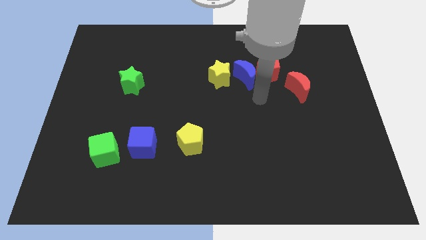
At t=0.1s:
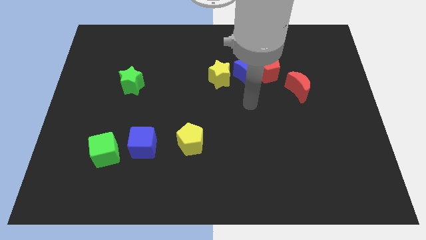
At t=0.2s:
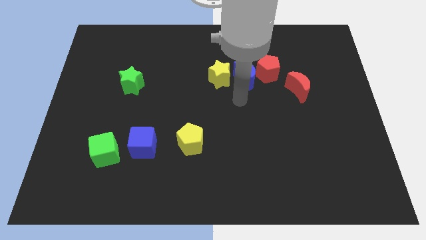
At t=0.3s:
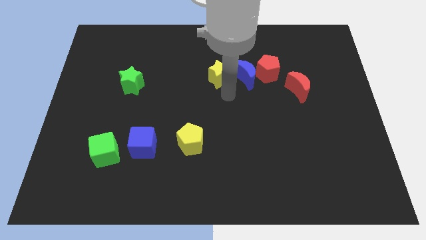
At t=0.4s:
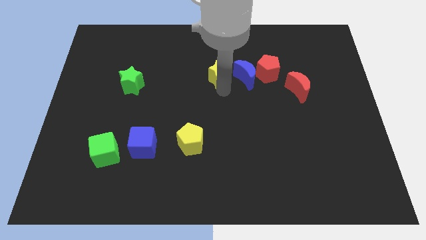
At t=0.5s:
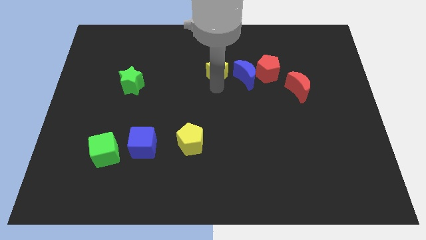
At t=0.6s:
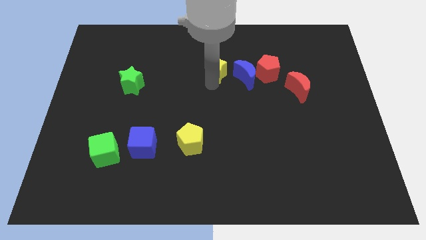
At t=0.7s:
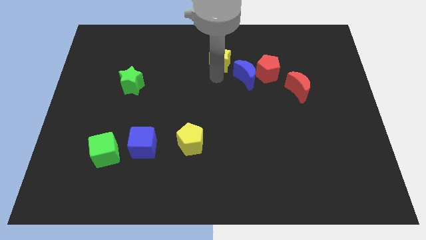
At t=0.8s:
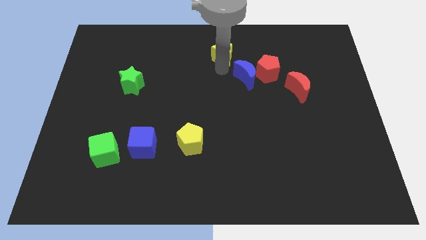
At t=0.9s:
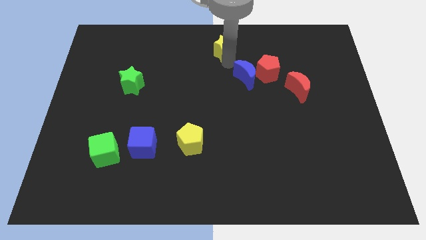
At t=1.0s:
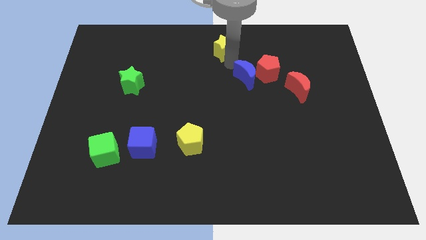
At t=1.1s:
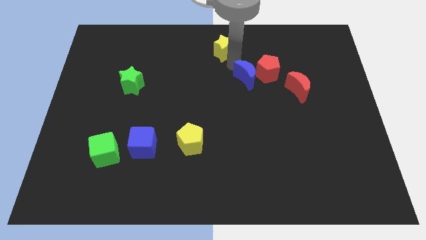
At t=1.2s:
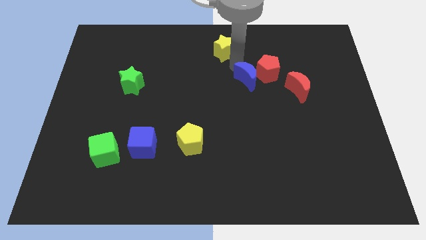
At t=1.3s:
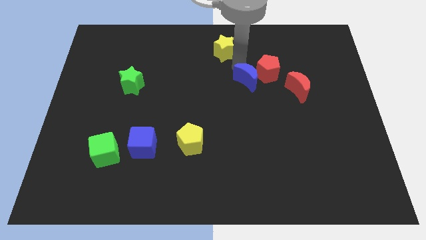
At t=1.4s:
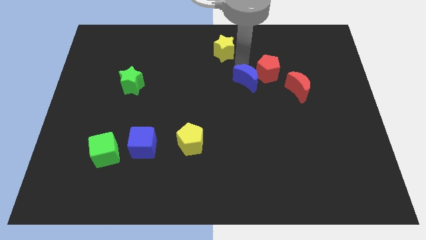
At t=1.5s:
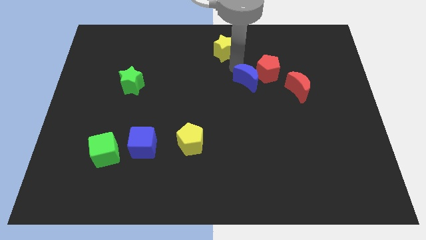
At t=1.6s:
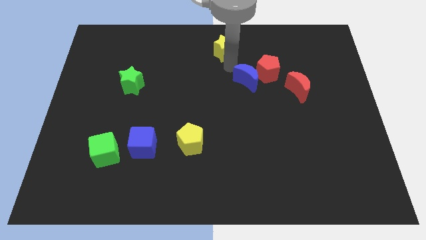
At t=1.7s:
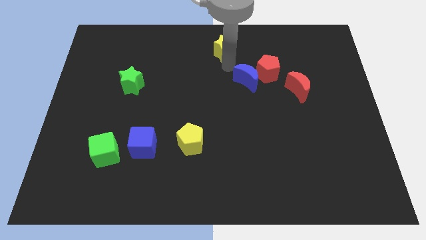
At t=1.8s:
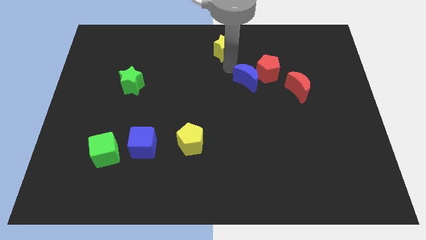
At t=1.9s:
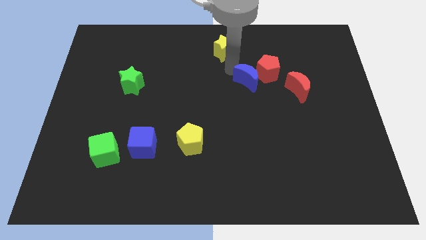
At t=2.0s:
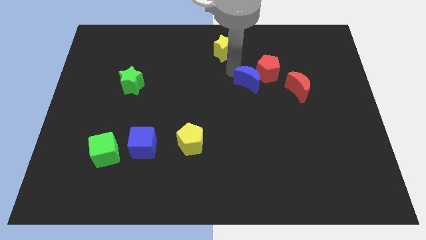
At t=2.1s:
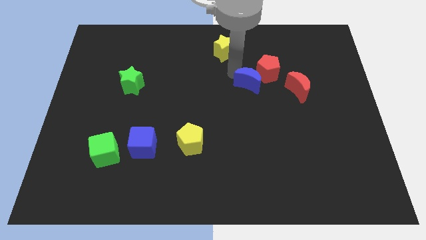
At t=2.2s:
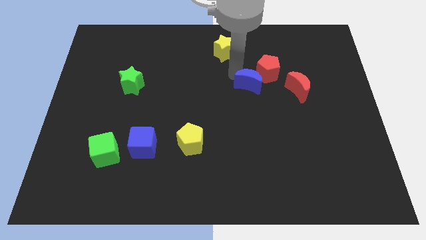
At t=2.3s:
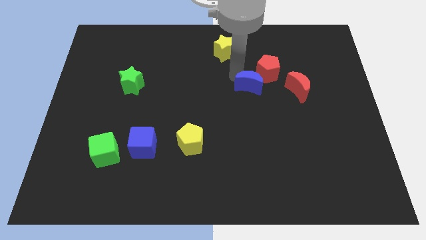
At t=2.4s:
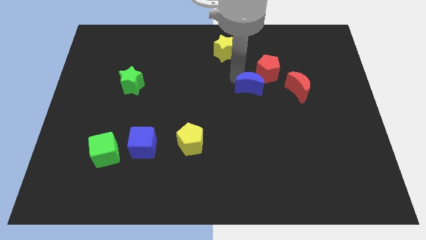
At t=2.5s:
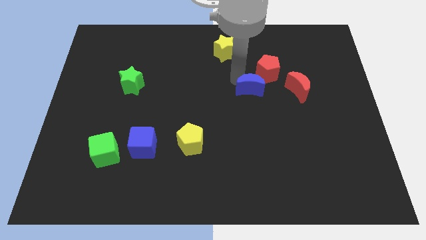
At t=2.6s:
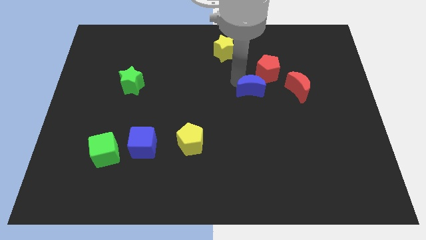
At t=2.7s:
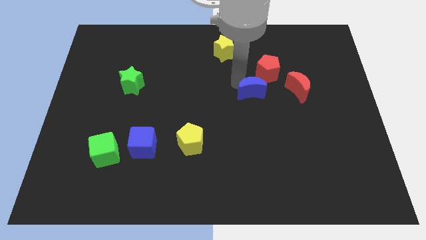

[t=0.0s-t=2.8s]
pull the blue moon apart from the red pentagon and yellow star

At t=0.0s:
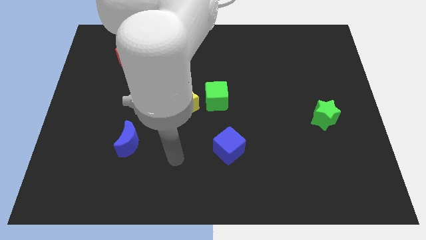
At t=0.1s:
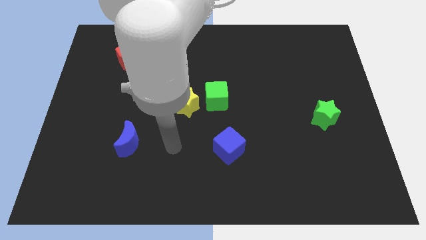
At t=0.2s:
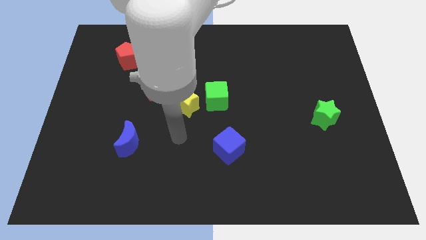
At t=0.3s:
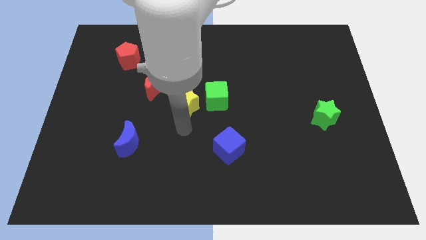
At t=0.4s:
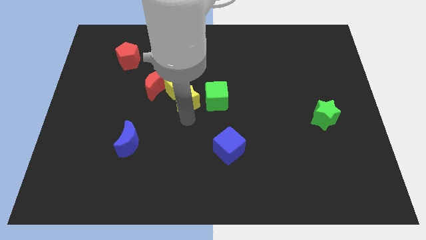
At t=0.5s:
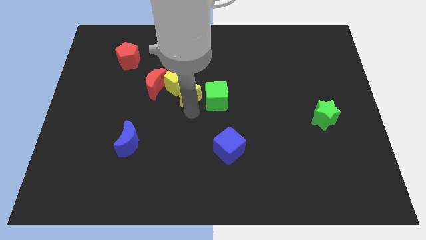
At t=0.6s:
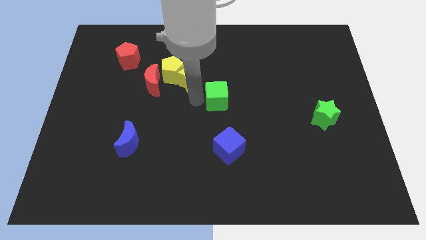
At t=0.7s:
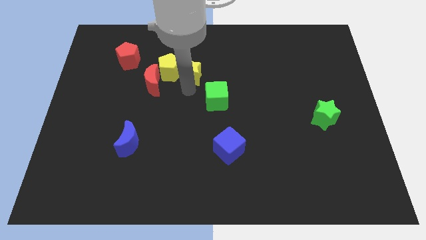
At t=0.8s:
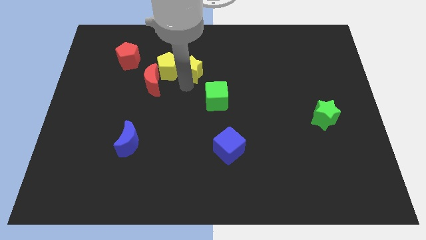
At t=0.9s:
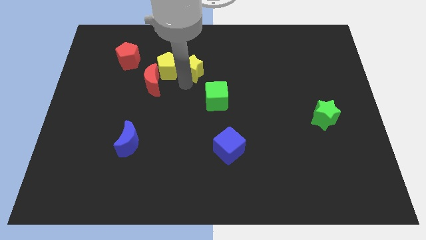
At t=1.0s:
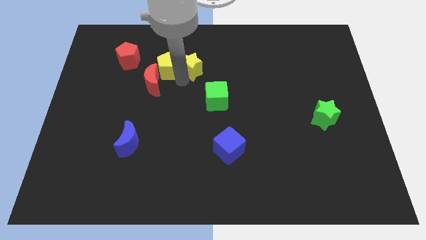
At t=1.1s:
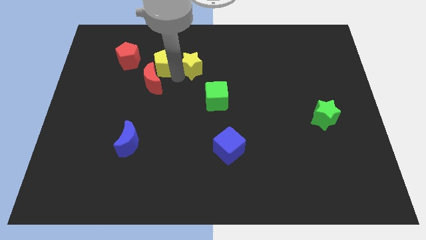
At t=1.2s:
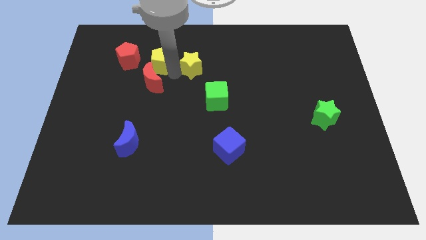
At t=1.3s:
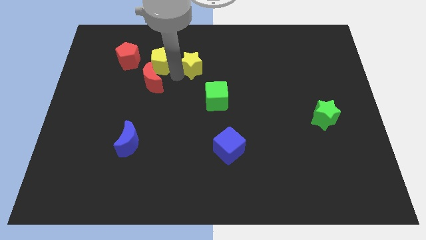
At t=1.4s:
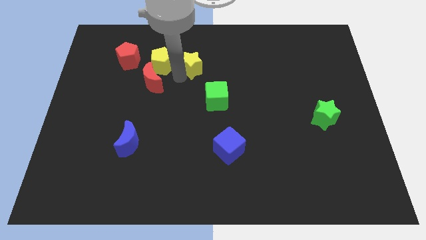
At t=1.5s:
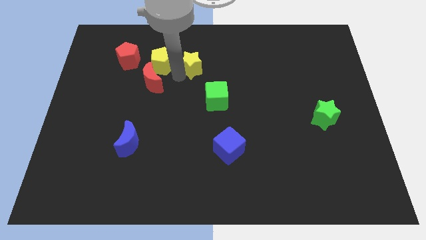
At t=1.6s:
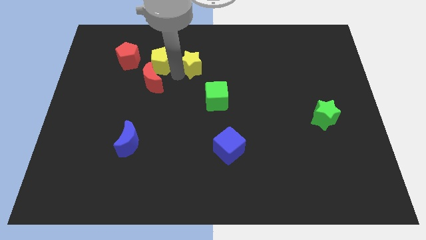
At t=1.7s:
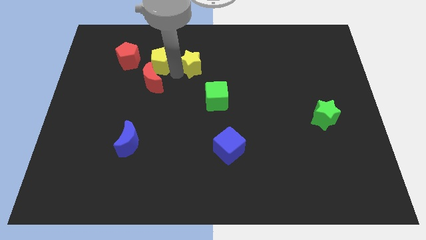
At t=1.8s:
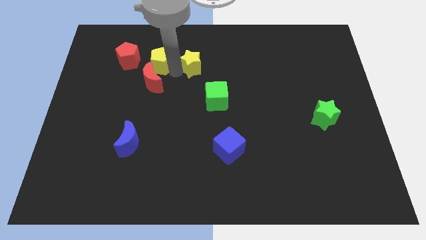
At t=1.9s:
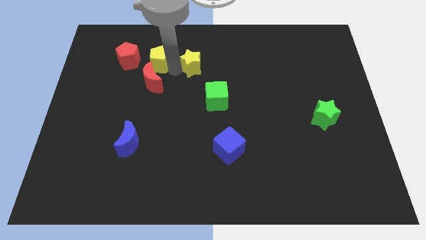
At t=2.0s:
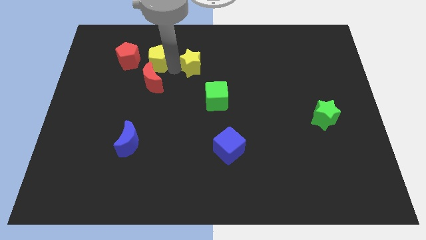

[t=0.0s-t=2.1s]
separate the yellow pentagon from the red moon, yellow star, and green cube

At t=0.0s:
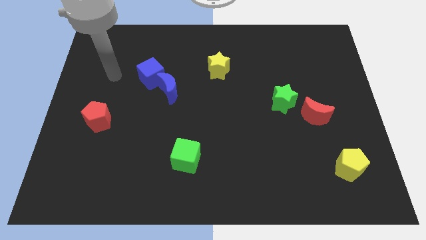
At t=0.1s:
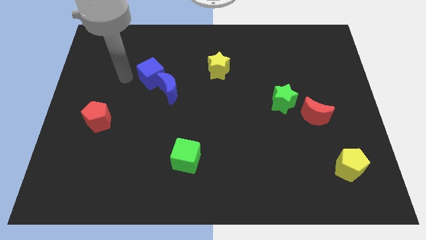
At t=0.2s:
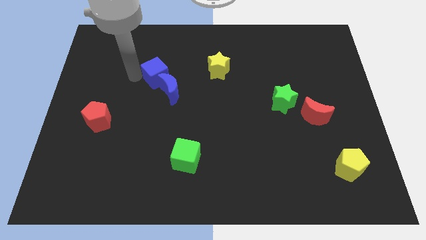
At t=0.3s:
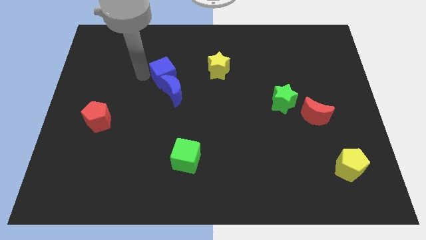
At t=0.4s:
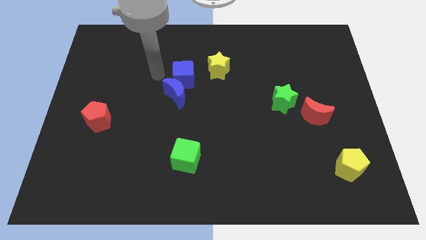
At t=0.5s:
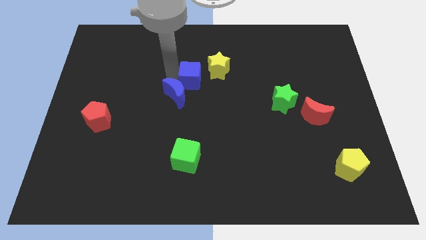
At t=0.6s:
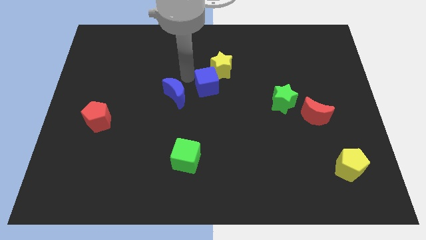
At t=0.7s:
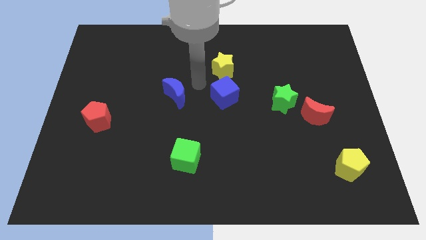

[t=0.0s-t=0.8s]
move the blue moon away from the blue cube

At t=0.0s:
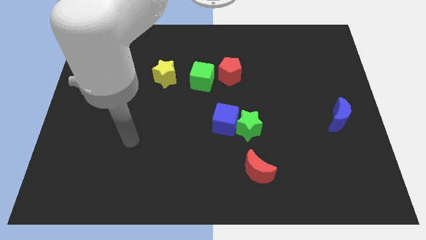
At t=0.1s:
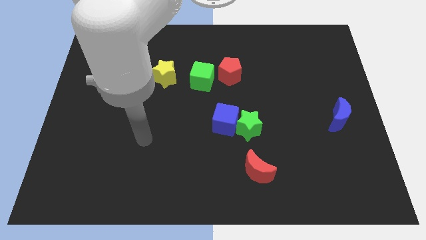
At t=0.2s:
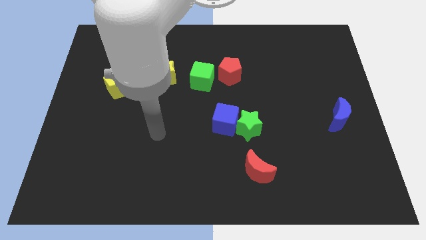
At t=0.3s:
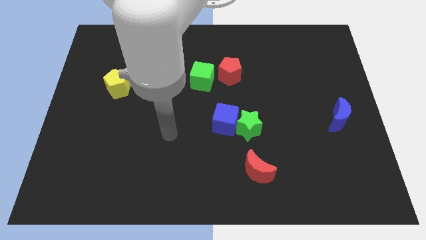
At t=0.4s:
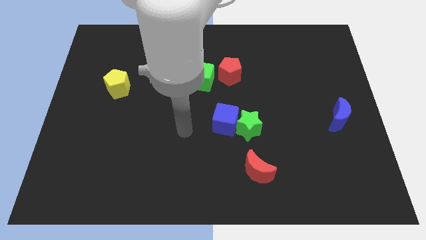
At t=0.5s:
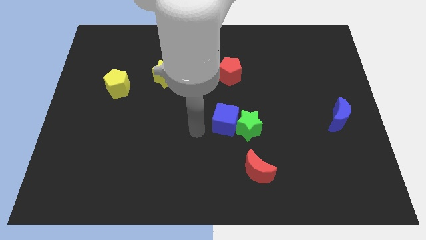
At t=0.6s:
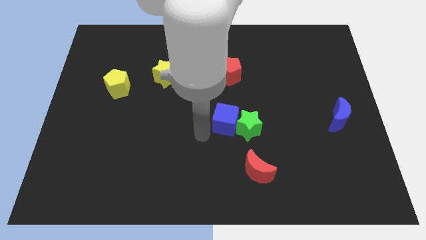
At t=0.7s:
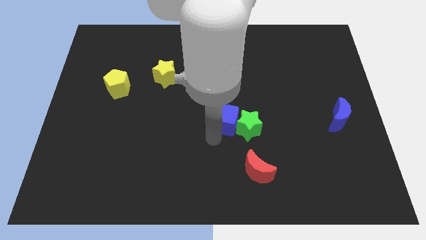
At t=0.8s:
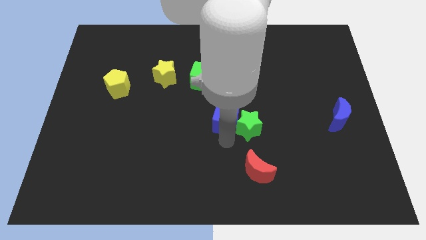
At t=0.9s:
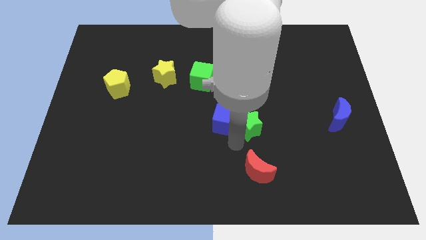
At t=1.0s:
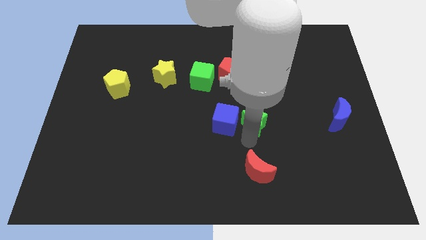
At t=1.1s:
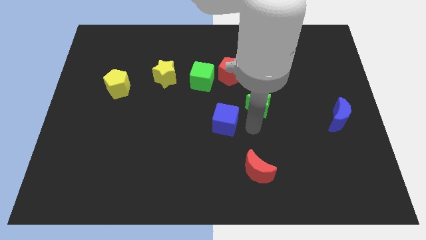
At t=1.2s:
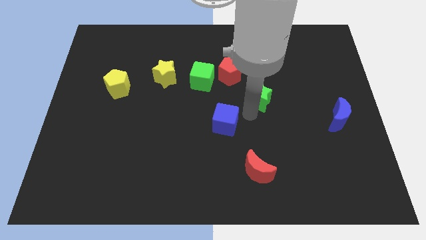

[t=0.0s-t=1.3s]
separate the blue cube from the green star

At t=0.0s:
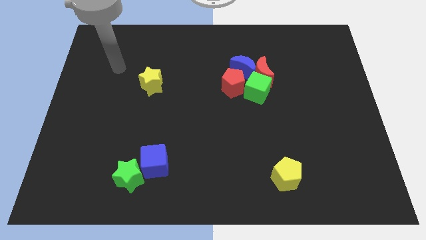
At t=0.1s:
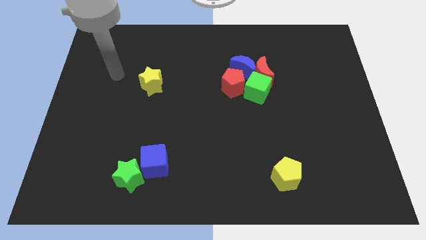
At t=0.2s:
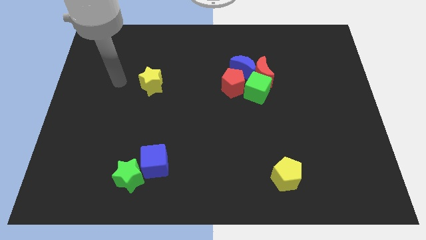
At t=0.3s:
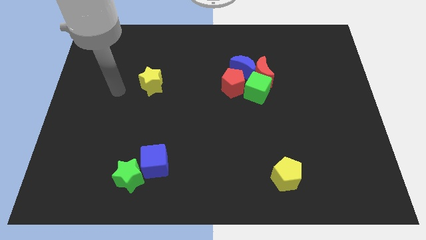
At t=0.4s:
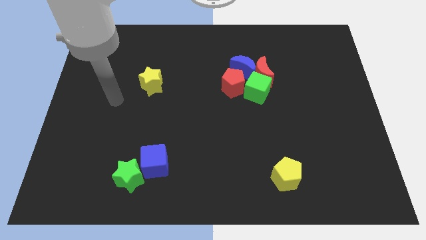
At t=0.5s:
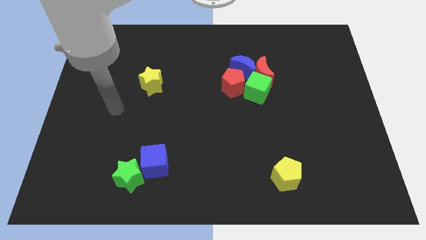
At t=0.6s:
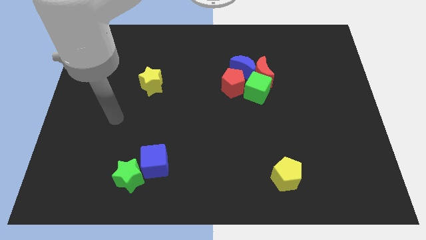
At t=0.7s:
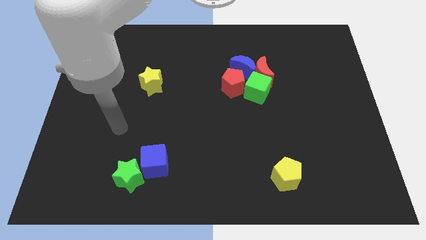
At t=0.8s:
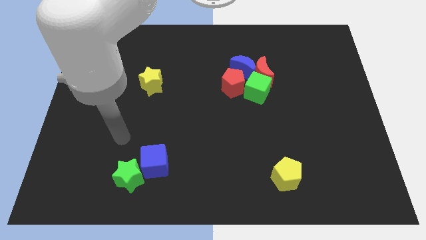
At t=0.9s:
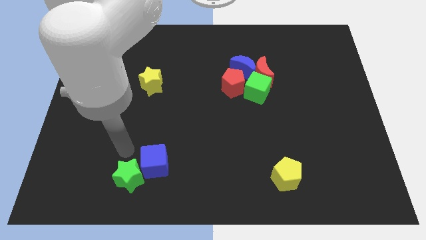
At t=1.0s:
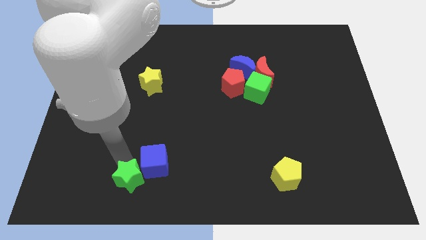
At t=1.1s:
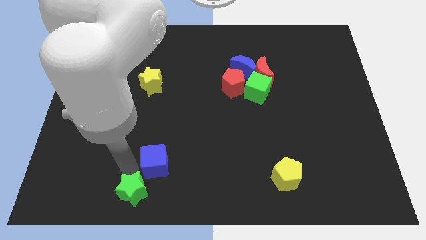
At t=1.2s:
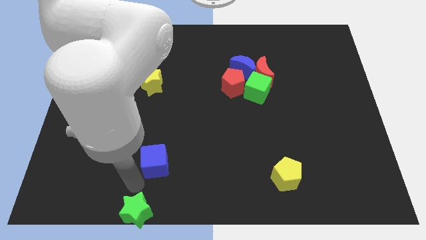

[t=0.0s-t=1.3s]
move the blue cube away from the green star

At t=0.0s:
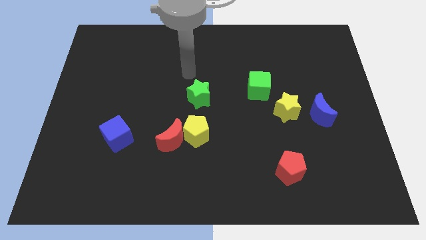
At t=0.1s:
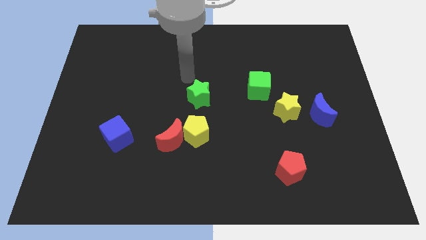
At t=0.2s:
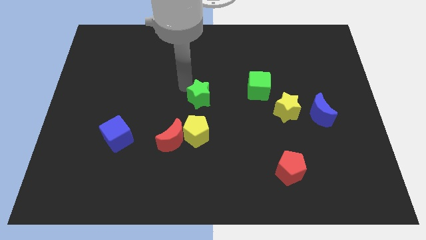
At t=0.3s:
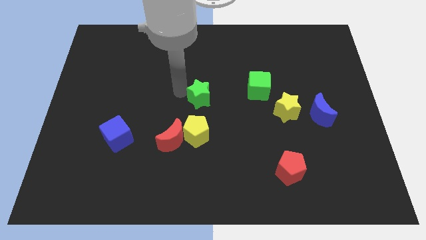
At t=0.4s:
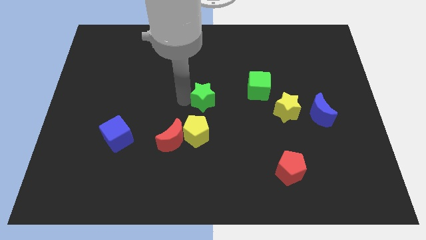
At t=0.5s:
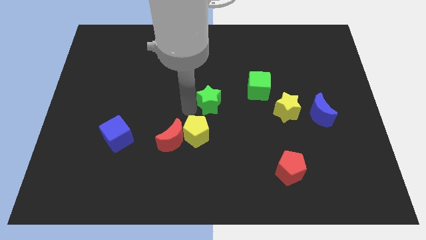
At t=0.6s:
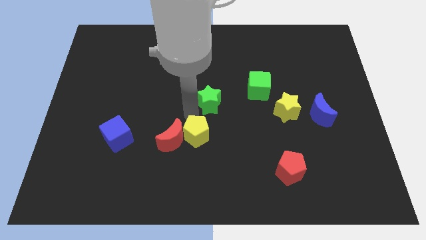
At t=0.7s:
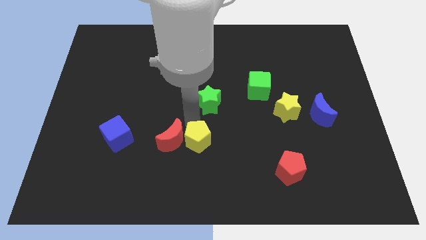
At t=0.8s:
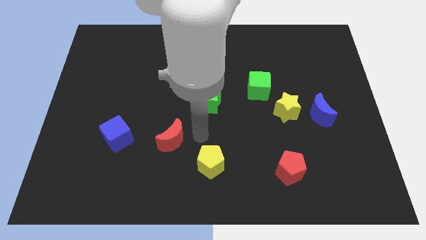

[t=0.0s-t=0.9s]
separate the red moon from the yellow pentagon

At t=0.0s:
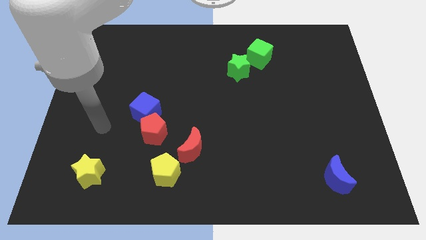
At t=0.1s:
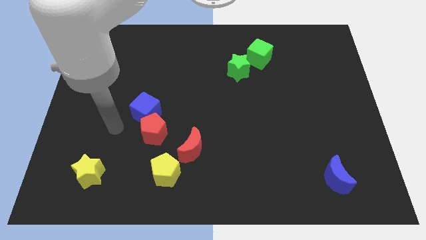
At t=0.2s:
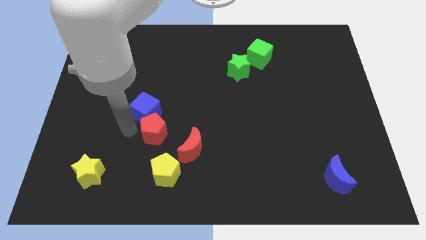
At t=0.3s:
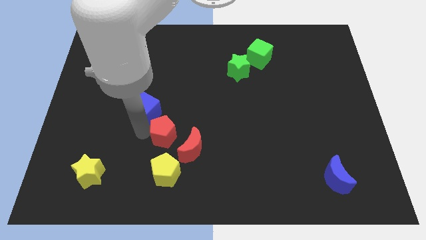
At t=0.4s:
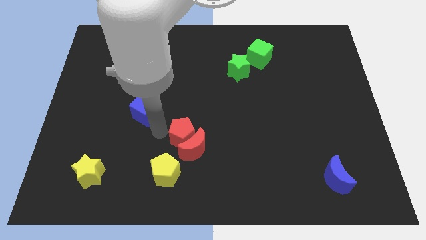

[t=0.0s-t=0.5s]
pull the blue cube apart from the red pentagon
